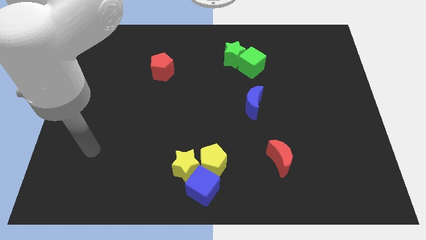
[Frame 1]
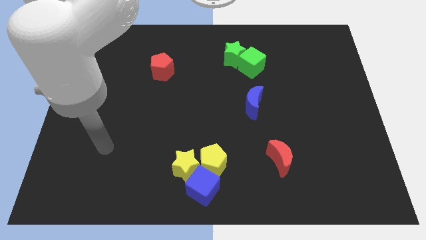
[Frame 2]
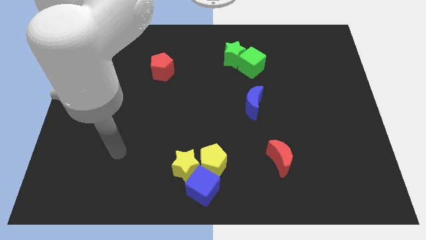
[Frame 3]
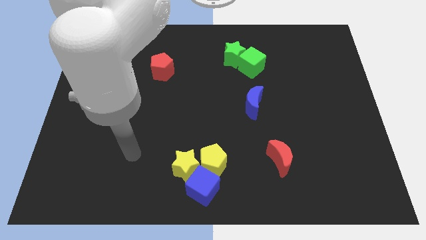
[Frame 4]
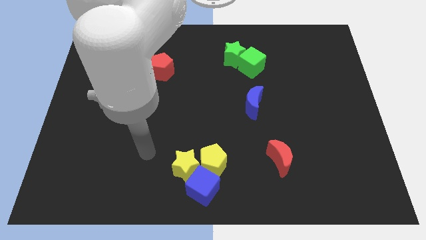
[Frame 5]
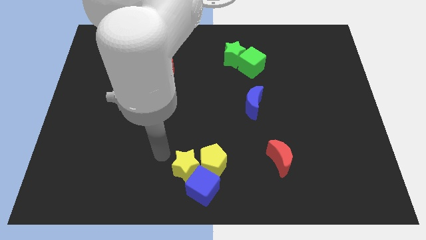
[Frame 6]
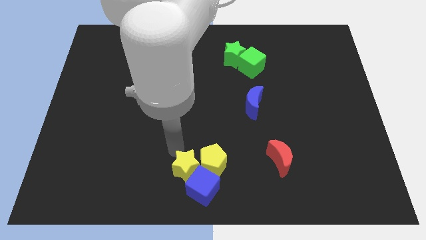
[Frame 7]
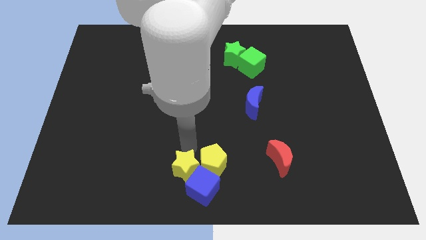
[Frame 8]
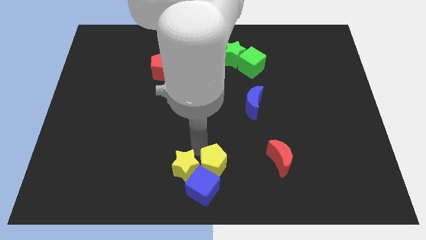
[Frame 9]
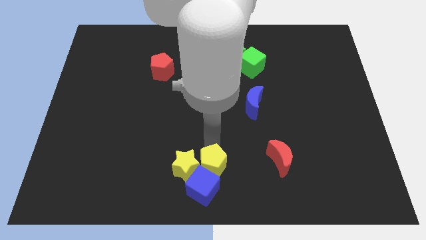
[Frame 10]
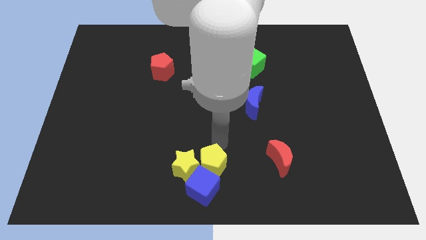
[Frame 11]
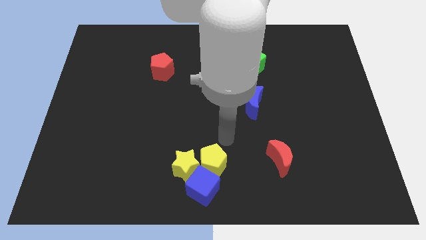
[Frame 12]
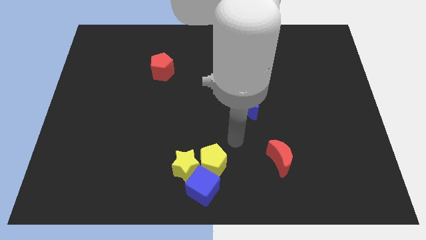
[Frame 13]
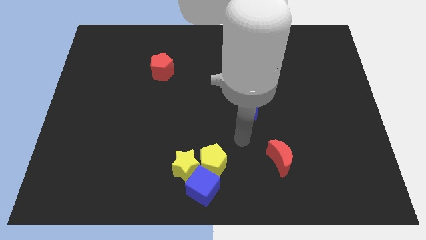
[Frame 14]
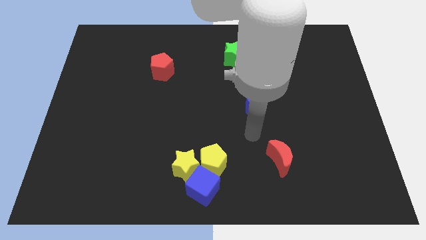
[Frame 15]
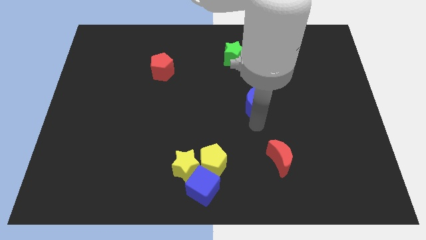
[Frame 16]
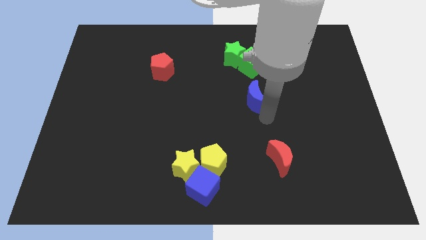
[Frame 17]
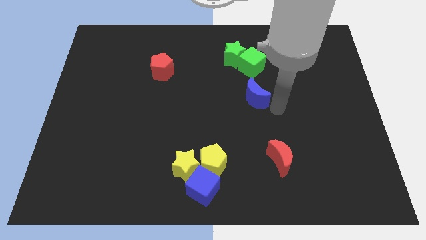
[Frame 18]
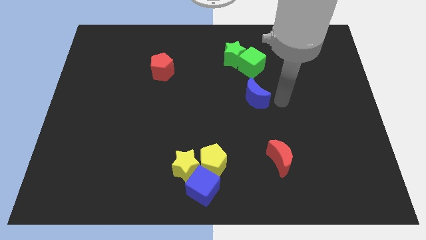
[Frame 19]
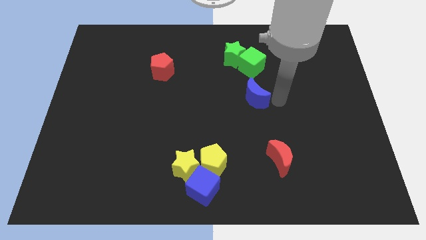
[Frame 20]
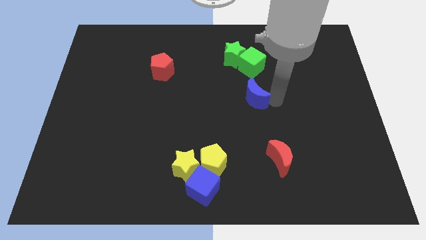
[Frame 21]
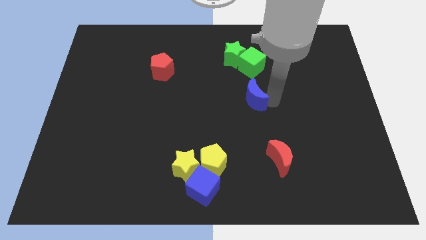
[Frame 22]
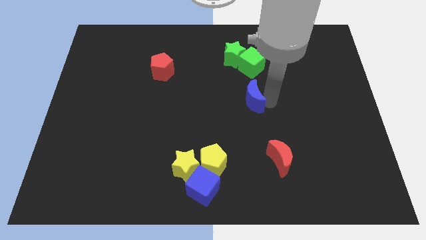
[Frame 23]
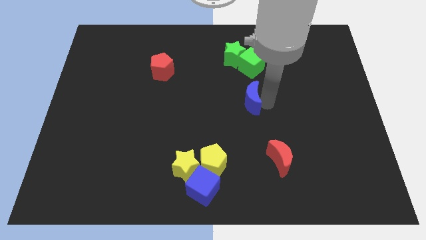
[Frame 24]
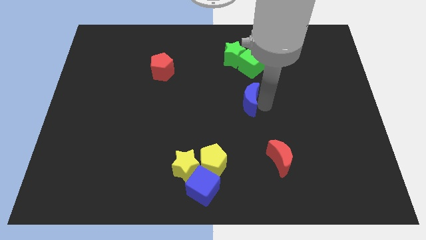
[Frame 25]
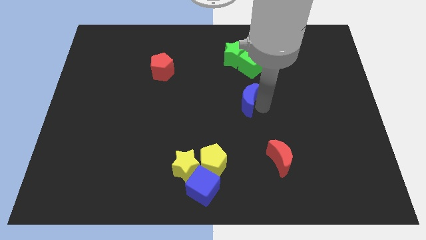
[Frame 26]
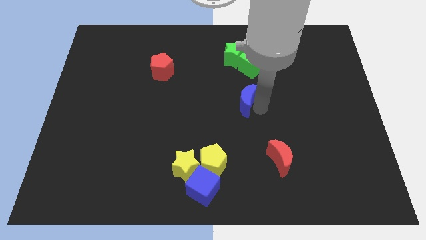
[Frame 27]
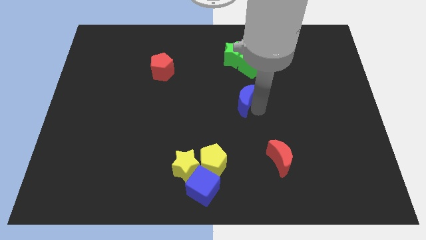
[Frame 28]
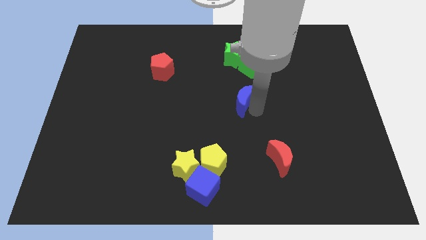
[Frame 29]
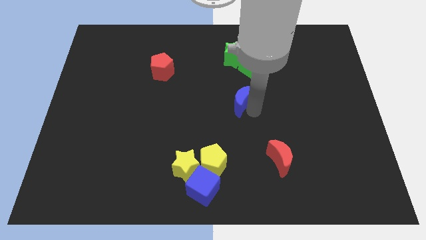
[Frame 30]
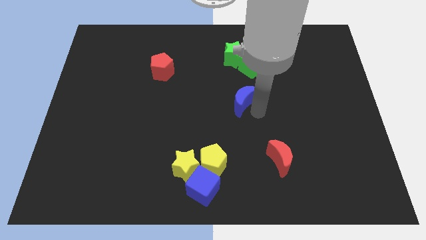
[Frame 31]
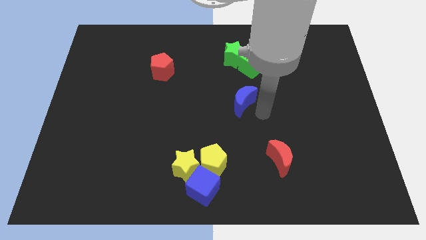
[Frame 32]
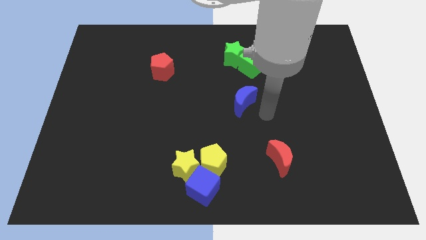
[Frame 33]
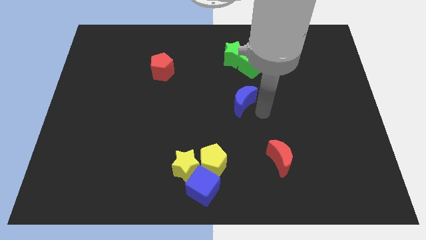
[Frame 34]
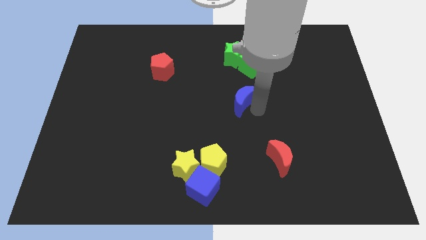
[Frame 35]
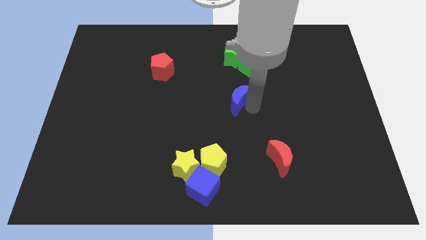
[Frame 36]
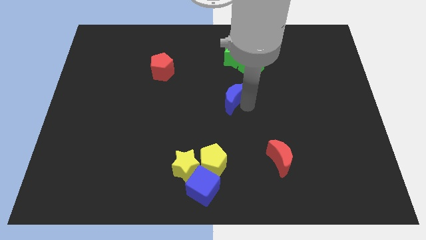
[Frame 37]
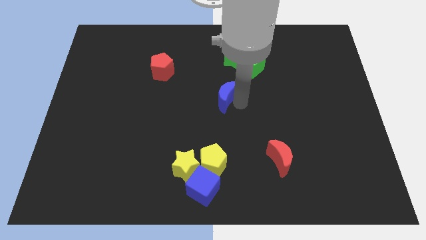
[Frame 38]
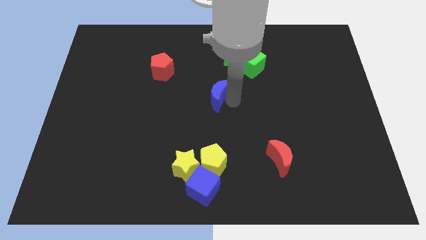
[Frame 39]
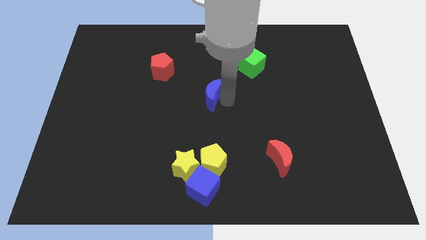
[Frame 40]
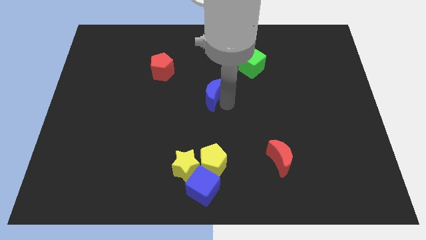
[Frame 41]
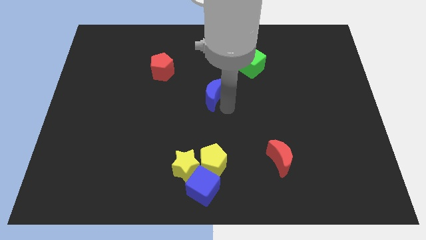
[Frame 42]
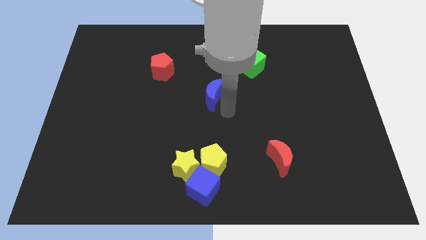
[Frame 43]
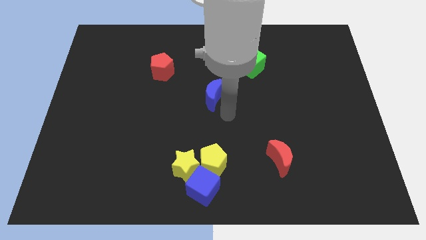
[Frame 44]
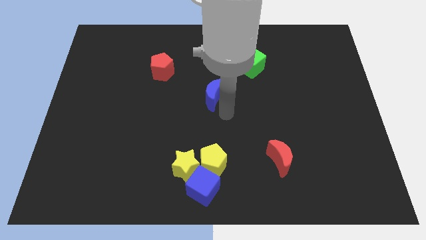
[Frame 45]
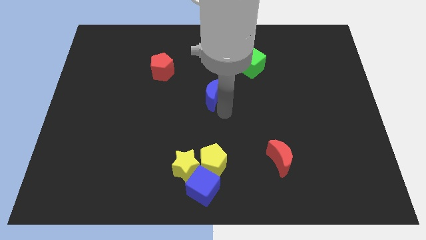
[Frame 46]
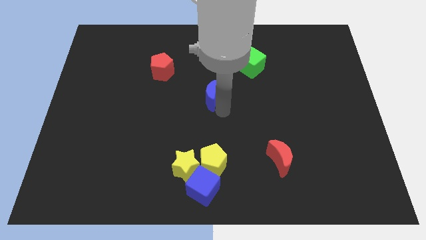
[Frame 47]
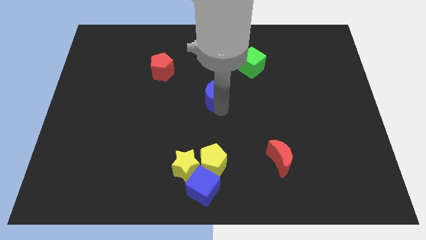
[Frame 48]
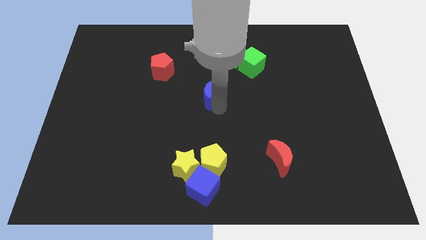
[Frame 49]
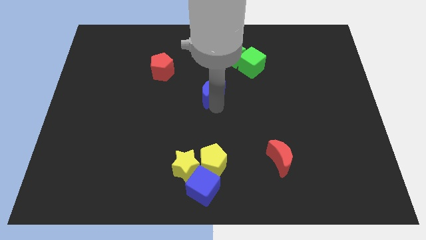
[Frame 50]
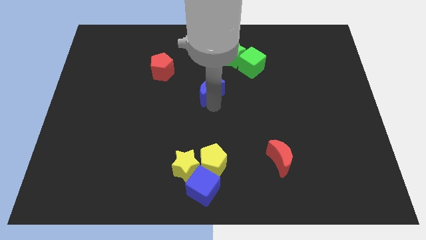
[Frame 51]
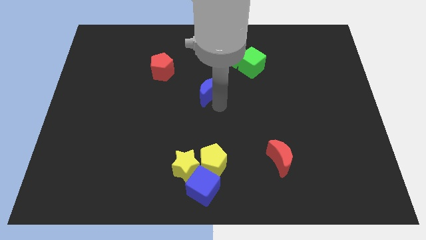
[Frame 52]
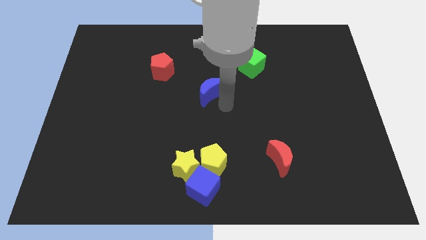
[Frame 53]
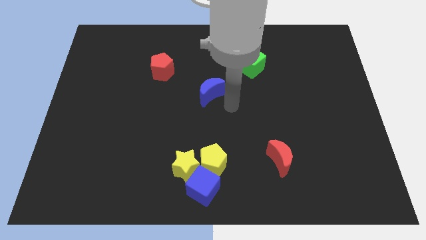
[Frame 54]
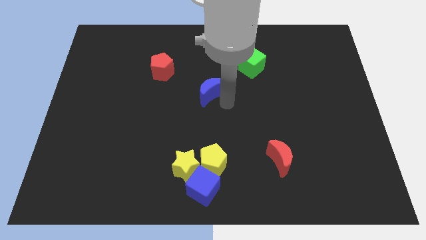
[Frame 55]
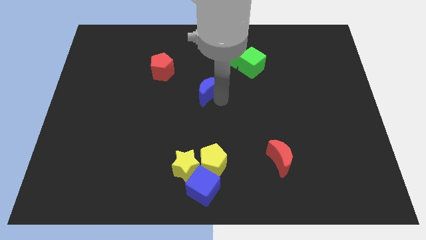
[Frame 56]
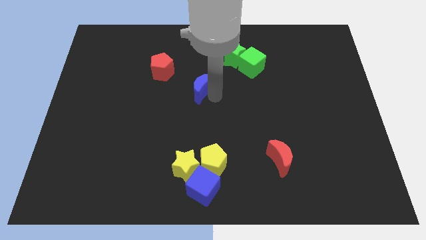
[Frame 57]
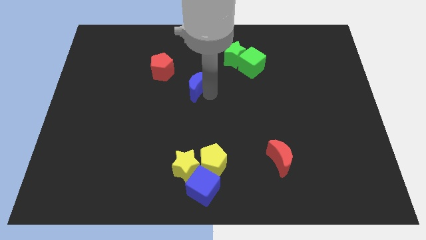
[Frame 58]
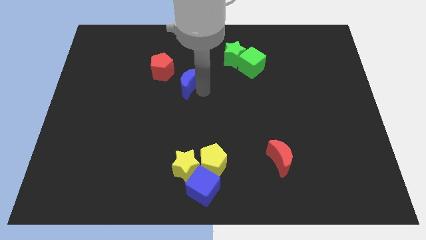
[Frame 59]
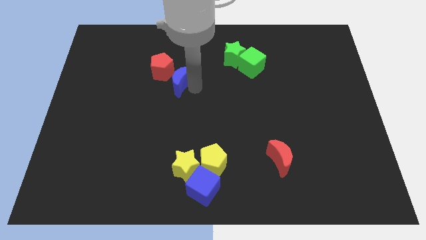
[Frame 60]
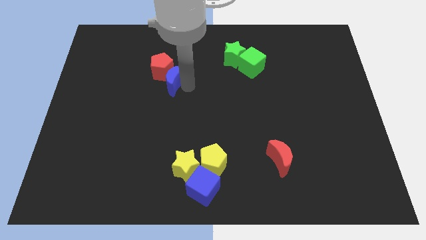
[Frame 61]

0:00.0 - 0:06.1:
put the blue moon towards the red pentagon

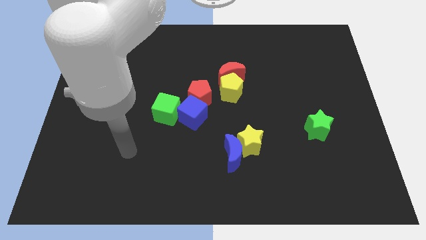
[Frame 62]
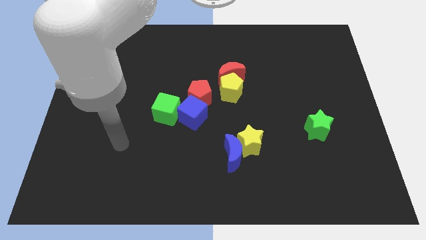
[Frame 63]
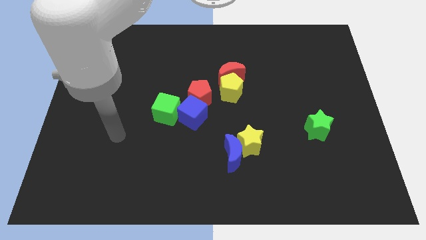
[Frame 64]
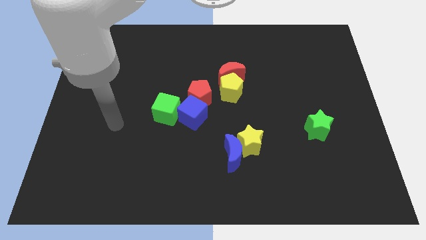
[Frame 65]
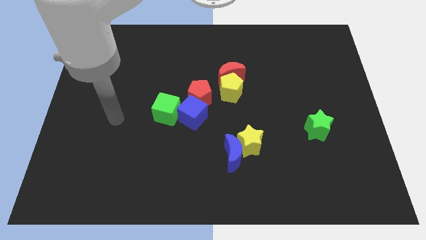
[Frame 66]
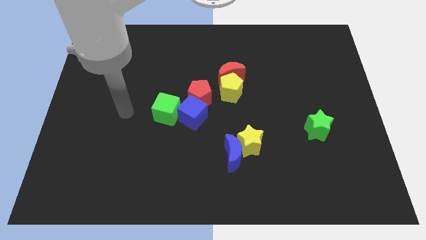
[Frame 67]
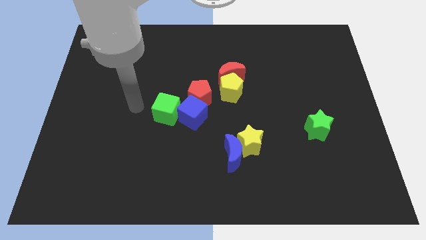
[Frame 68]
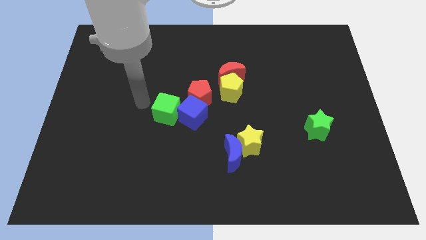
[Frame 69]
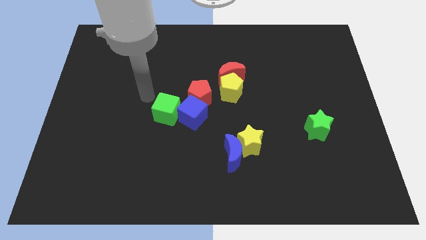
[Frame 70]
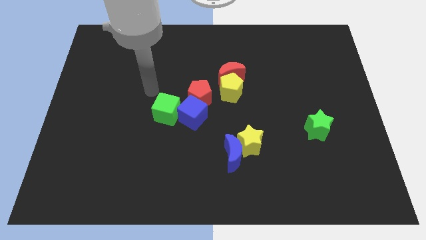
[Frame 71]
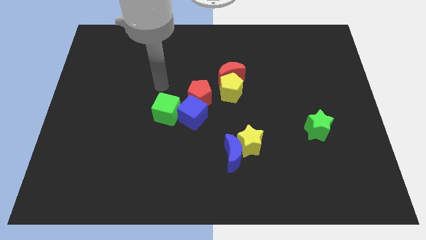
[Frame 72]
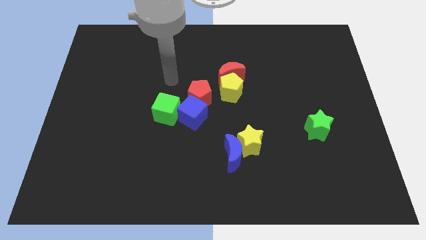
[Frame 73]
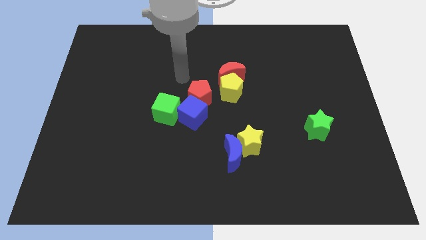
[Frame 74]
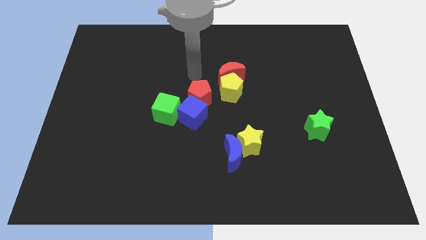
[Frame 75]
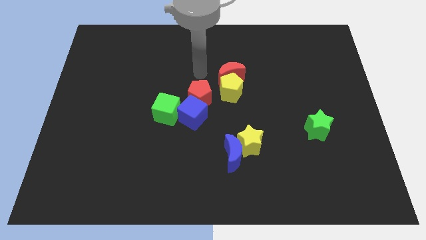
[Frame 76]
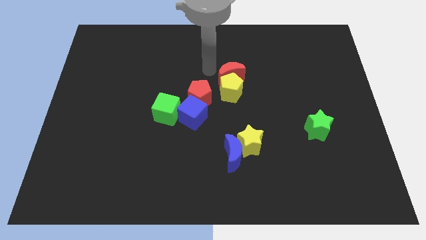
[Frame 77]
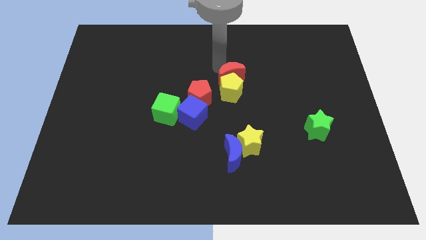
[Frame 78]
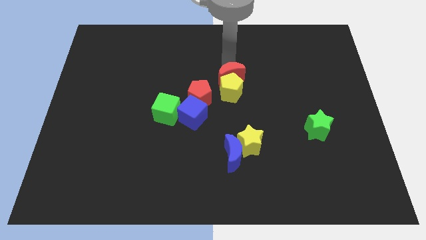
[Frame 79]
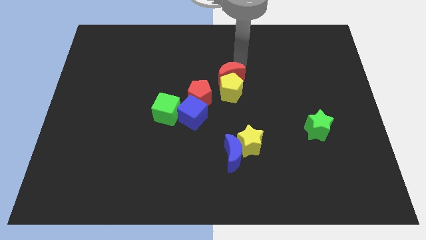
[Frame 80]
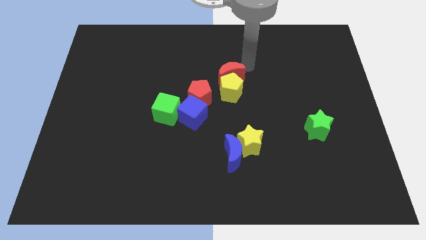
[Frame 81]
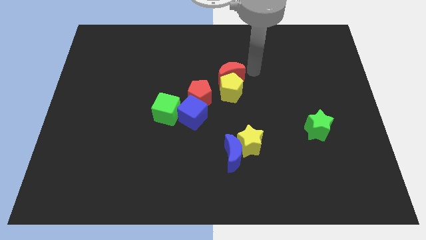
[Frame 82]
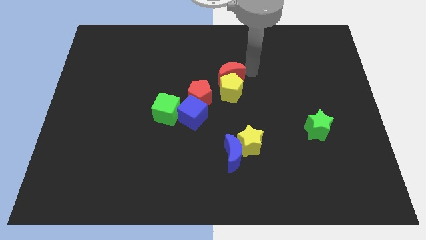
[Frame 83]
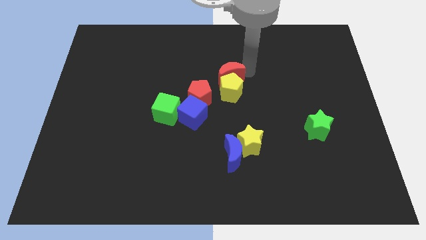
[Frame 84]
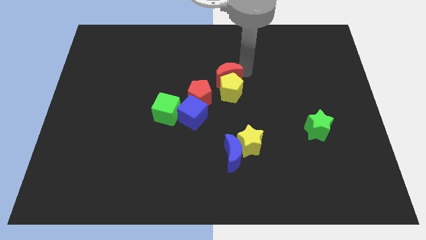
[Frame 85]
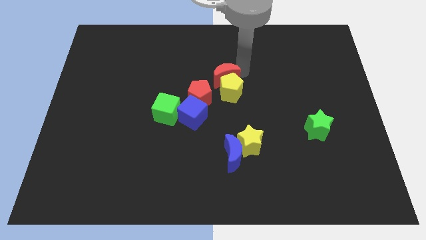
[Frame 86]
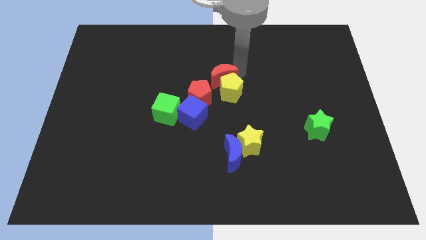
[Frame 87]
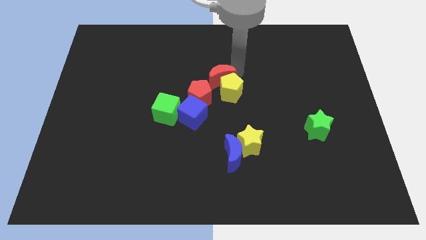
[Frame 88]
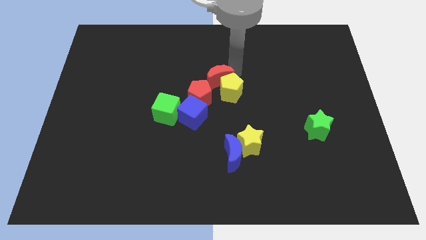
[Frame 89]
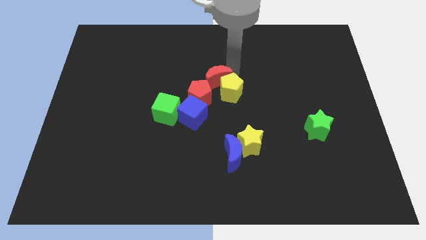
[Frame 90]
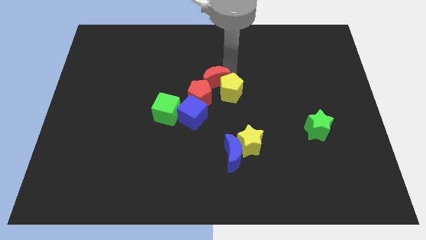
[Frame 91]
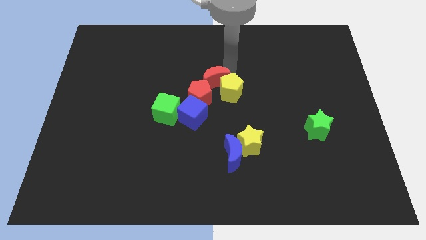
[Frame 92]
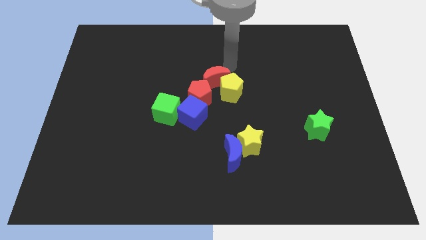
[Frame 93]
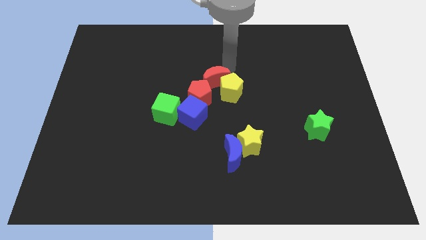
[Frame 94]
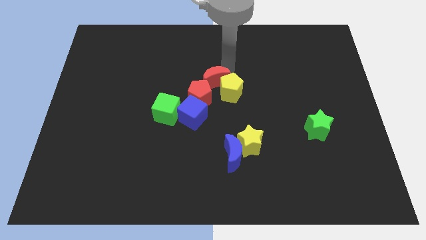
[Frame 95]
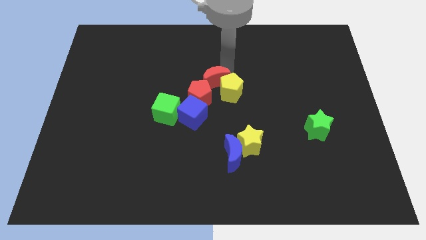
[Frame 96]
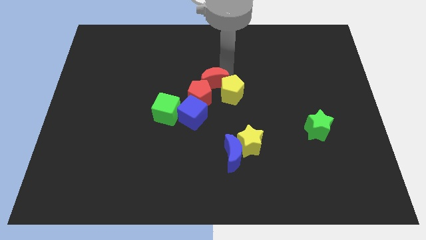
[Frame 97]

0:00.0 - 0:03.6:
put the red moon next to the red pentagon
